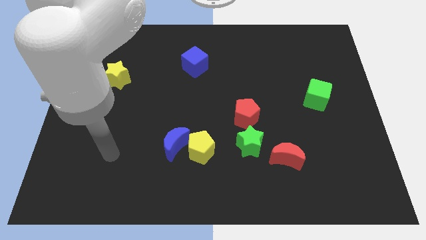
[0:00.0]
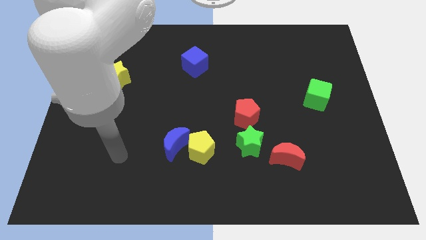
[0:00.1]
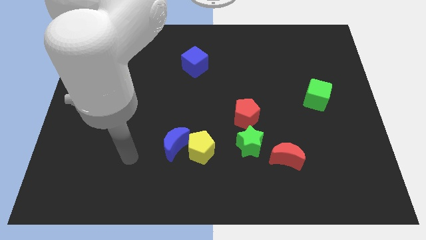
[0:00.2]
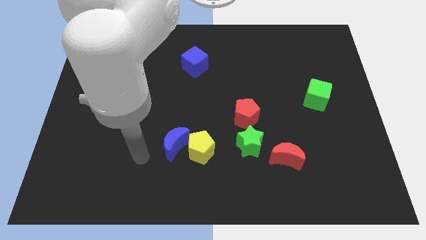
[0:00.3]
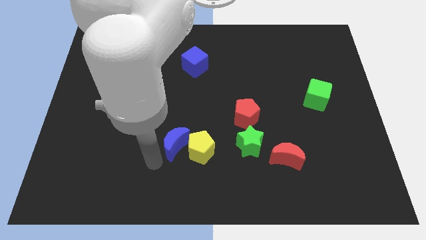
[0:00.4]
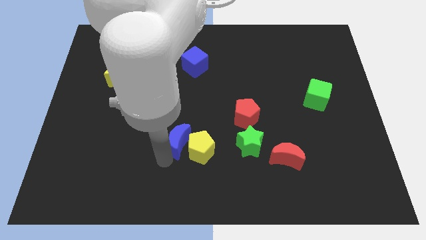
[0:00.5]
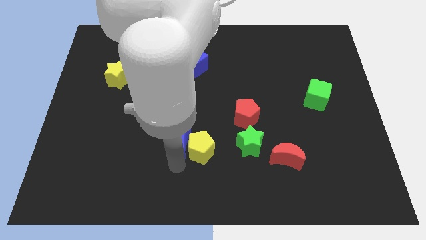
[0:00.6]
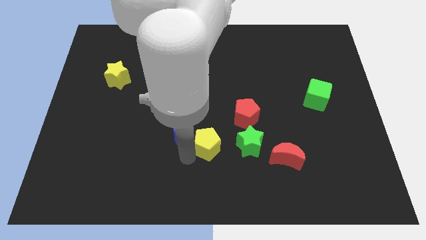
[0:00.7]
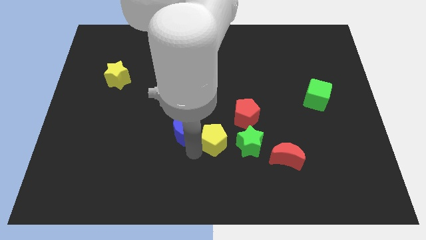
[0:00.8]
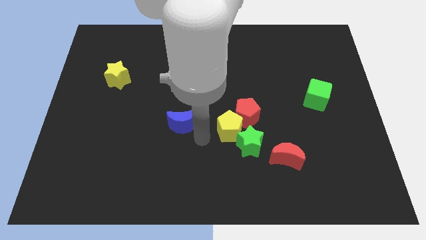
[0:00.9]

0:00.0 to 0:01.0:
separate the blue moon from the yellow pentagon

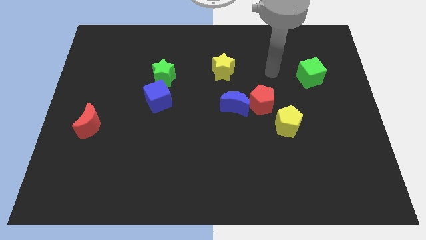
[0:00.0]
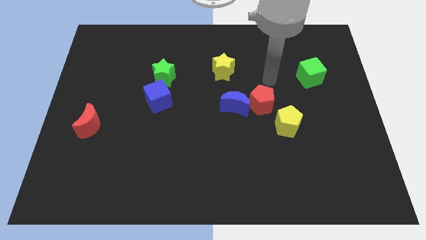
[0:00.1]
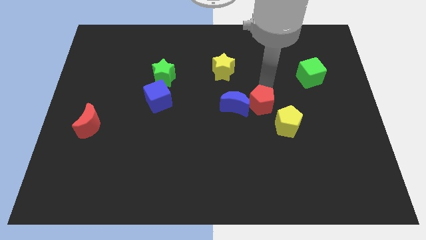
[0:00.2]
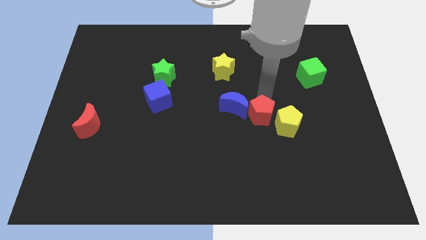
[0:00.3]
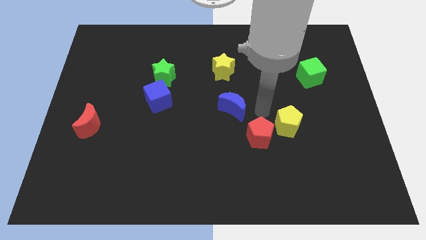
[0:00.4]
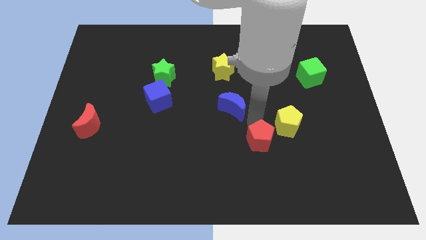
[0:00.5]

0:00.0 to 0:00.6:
separate the blue moon from the red pentagon

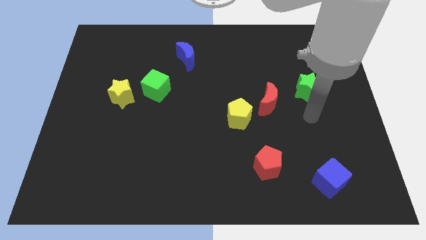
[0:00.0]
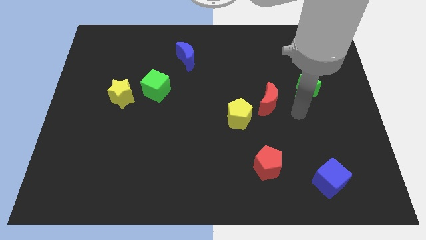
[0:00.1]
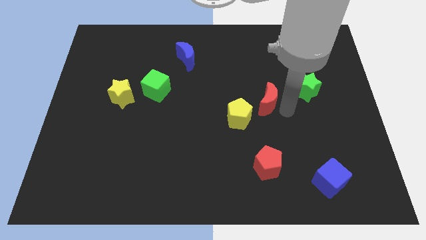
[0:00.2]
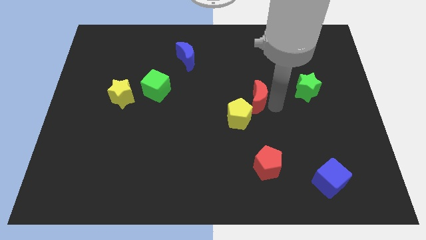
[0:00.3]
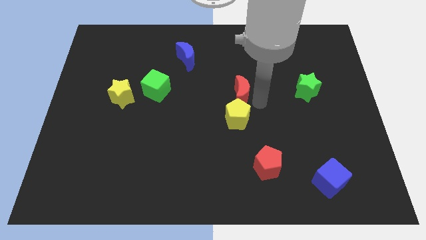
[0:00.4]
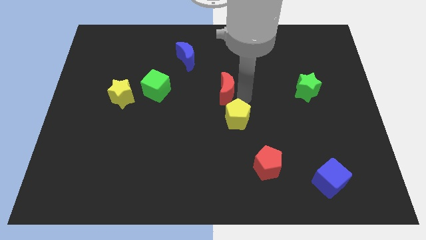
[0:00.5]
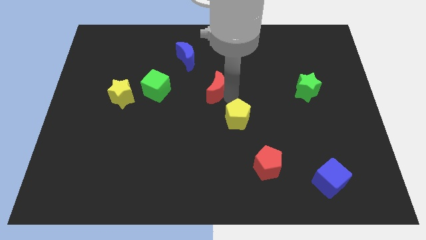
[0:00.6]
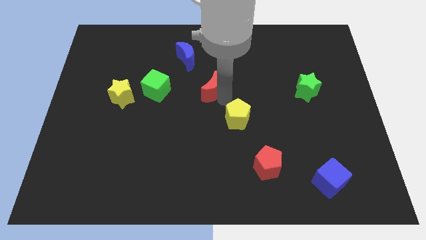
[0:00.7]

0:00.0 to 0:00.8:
separate the yellow pentagon from the red moon

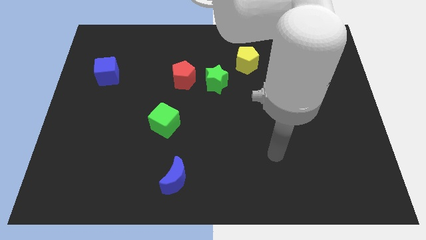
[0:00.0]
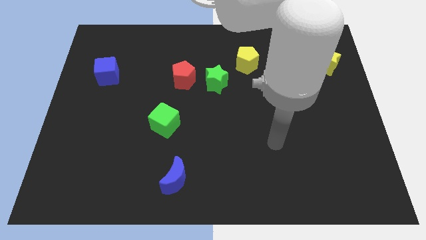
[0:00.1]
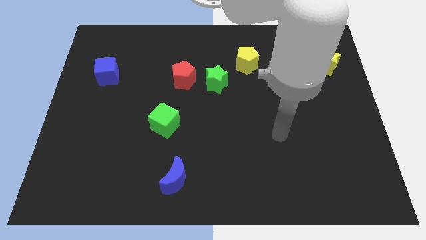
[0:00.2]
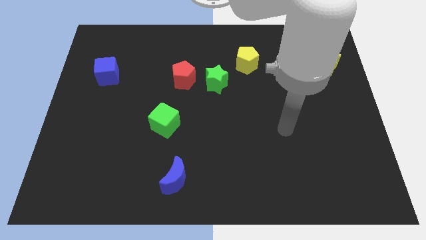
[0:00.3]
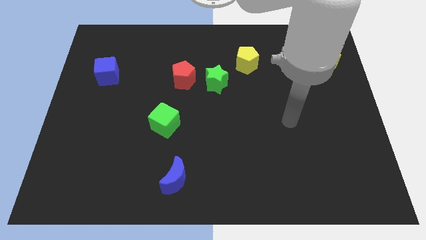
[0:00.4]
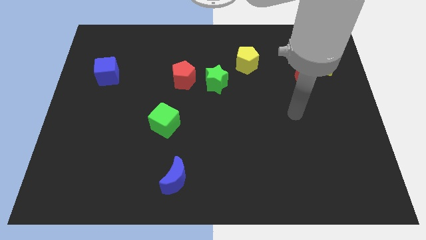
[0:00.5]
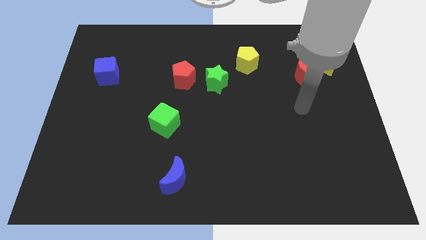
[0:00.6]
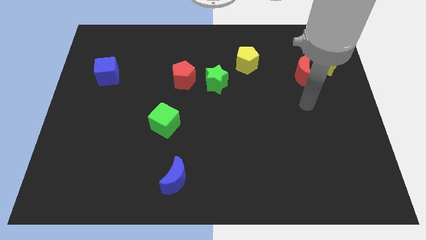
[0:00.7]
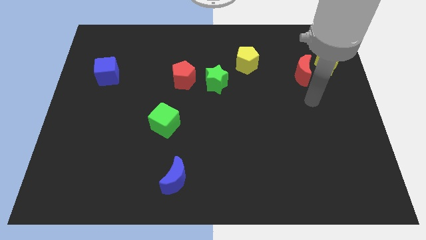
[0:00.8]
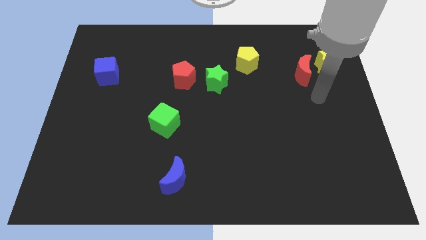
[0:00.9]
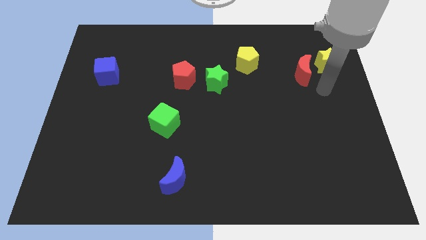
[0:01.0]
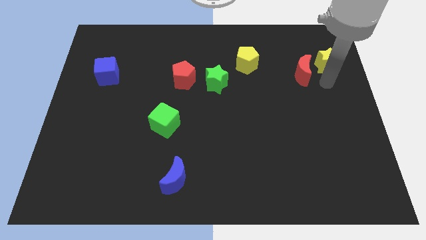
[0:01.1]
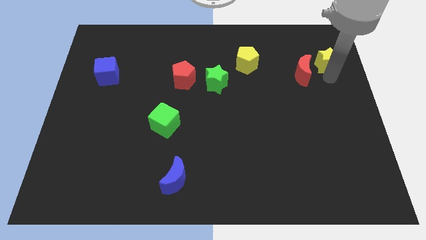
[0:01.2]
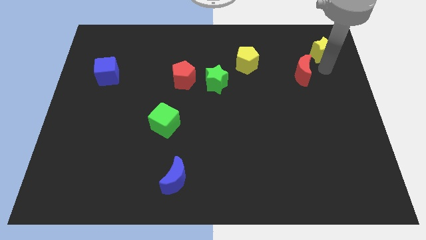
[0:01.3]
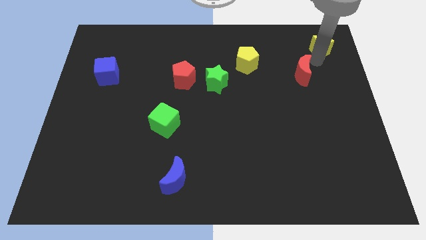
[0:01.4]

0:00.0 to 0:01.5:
pull the red moon apart from the yellow star

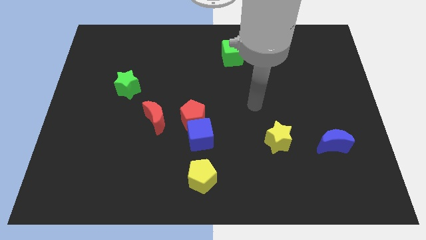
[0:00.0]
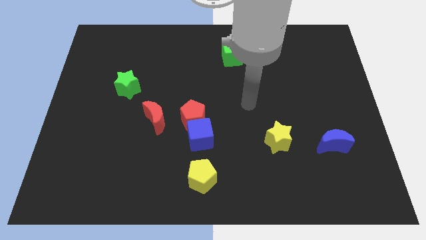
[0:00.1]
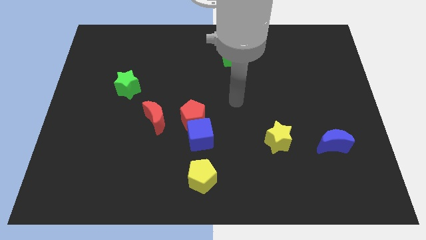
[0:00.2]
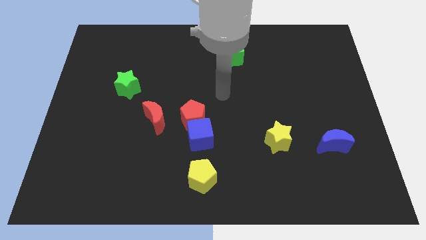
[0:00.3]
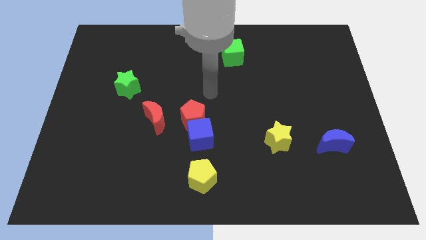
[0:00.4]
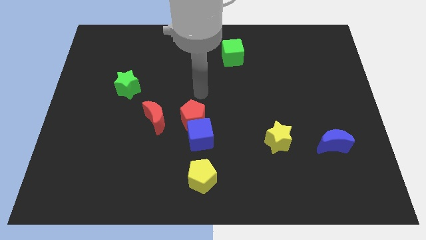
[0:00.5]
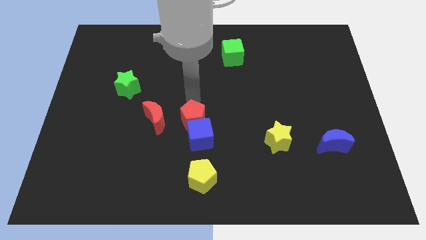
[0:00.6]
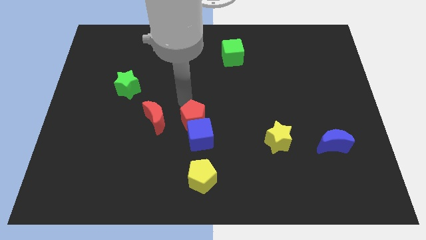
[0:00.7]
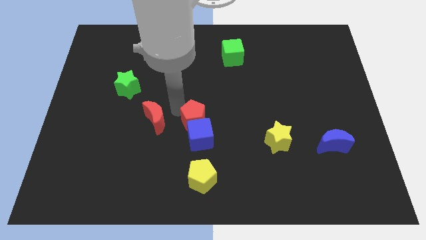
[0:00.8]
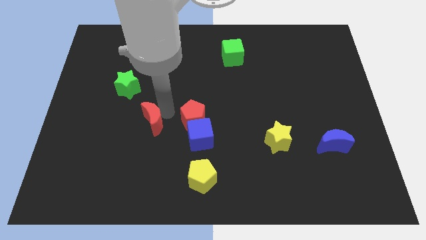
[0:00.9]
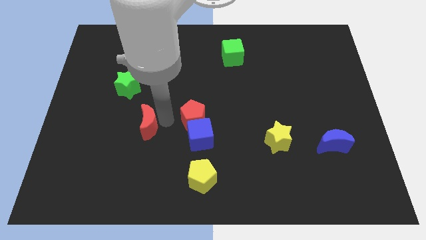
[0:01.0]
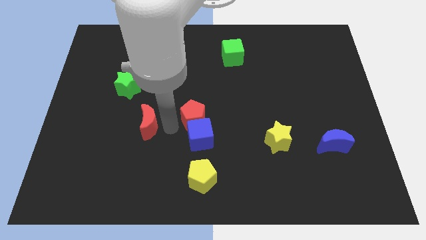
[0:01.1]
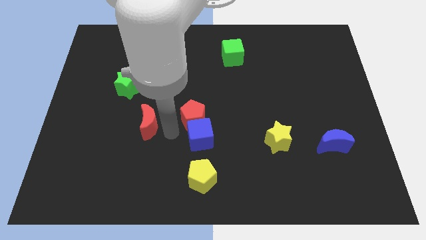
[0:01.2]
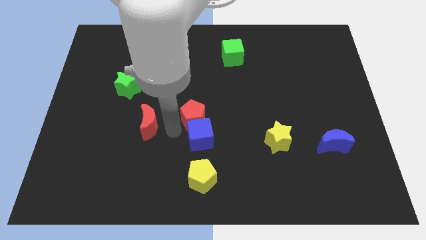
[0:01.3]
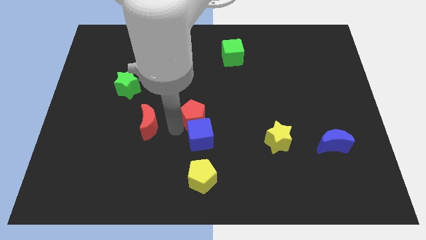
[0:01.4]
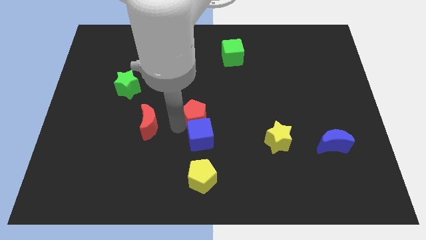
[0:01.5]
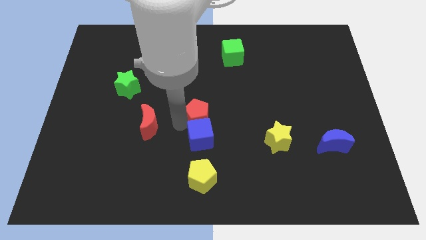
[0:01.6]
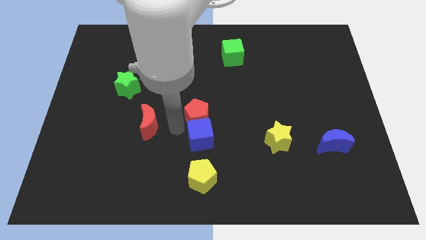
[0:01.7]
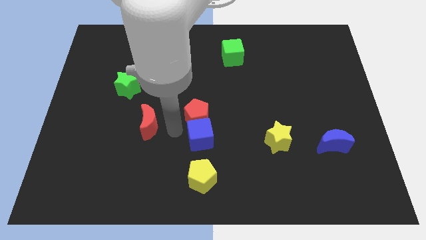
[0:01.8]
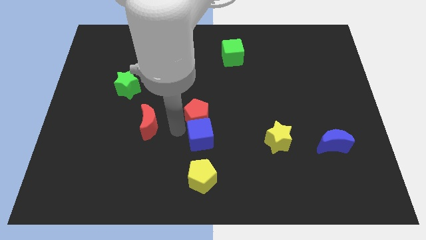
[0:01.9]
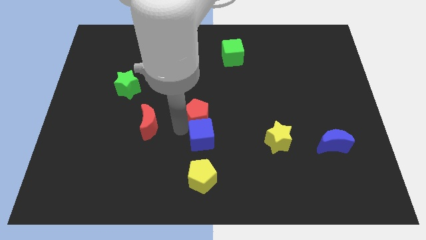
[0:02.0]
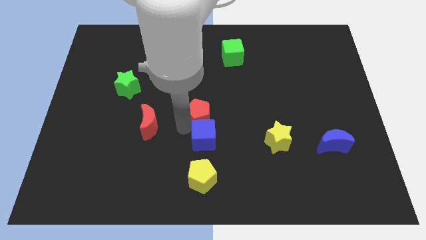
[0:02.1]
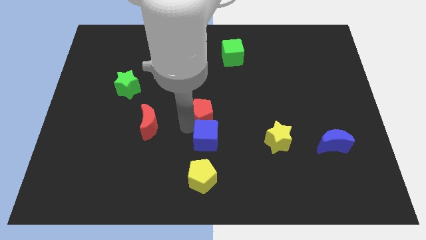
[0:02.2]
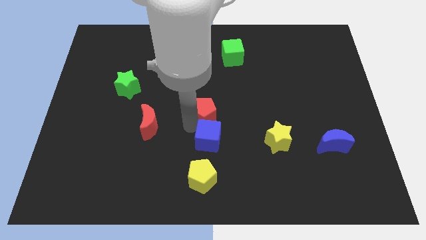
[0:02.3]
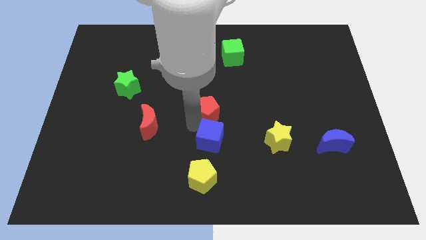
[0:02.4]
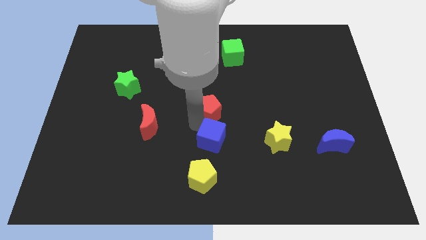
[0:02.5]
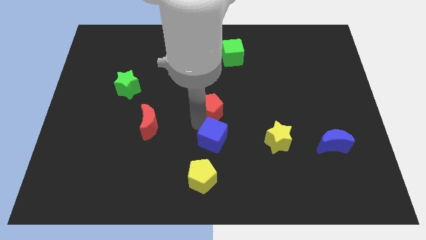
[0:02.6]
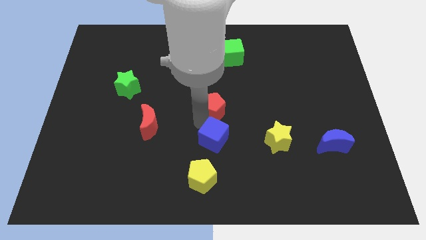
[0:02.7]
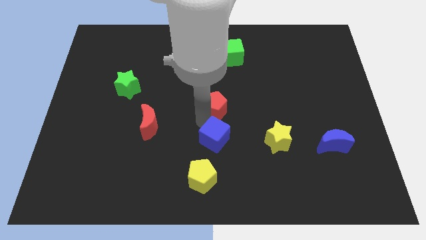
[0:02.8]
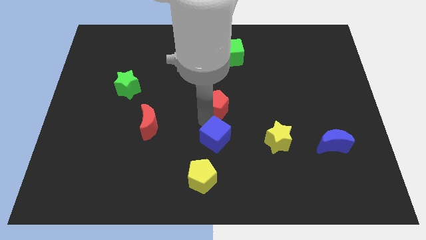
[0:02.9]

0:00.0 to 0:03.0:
move the red pentagon away from the blue cube and red moon

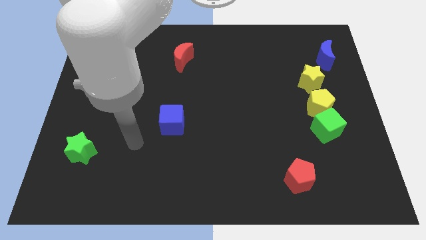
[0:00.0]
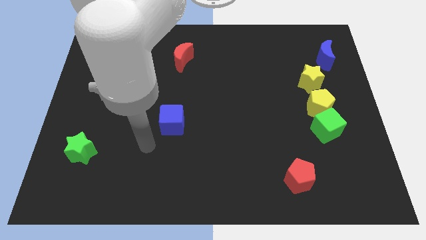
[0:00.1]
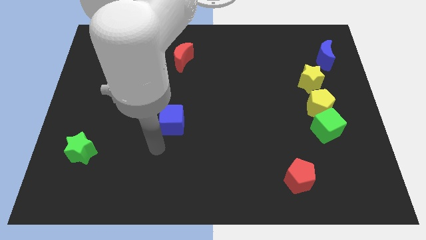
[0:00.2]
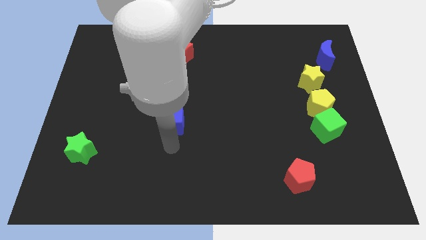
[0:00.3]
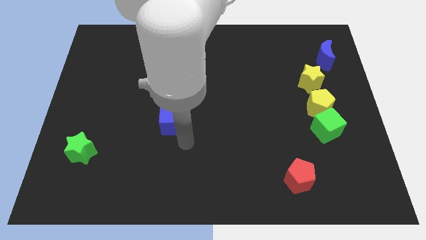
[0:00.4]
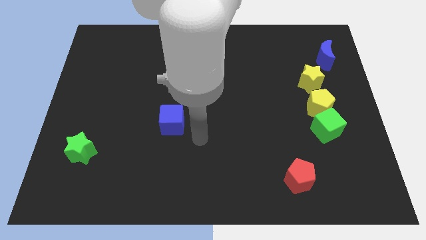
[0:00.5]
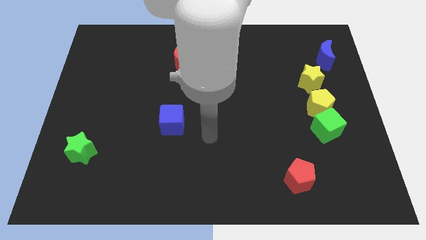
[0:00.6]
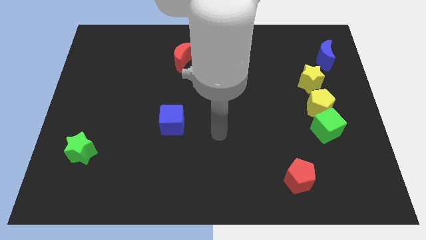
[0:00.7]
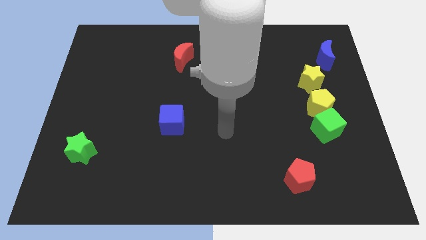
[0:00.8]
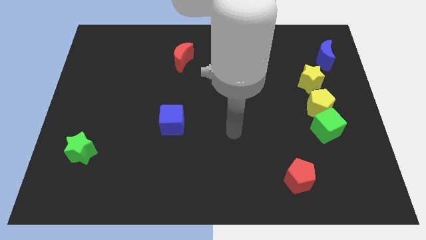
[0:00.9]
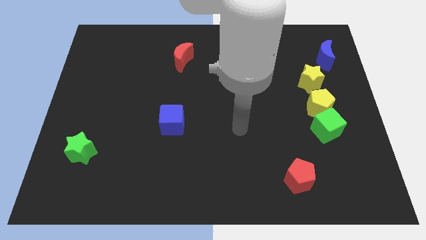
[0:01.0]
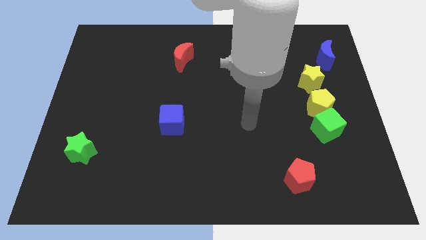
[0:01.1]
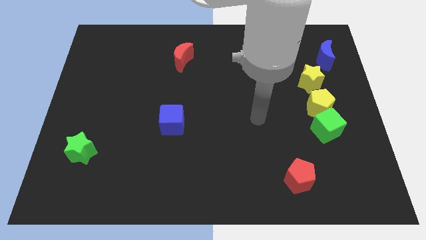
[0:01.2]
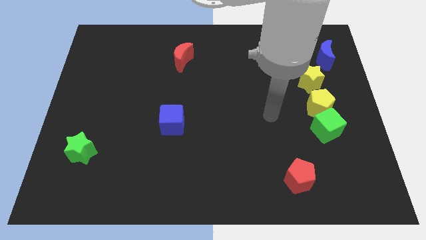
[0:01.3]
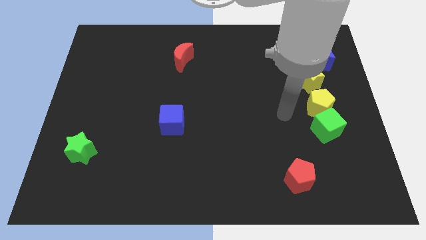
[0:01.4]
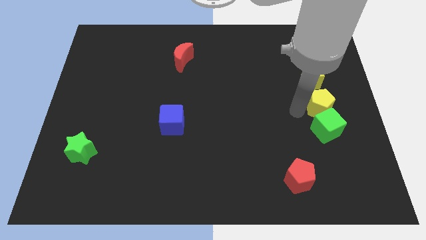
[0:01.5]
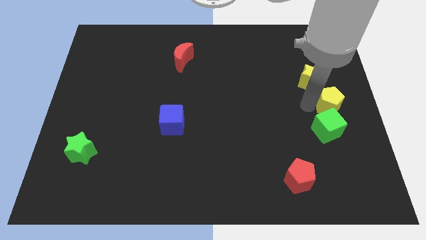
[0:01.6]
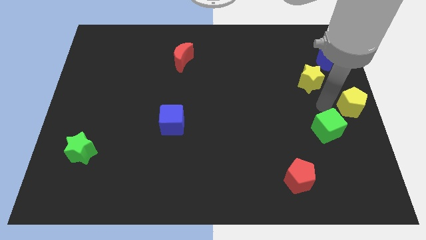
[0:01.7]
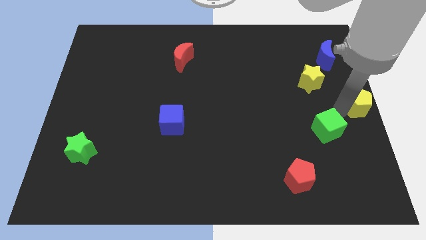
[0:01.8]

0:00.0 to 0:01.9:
separate the green cube from the yellow pentagon

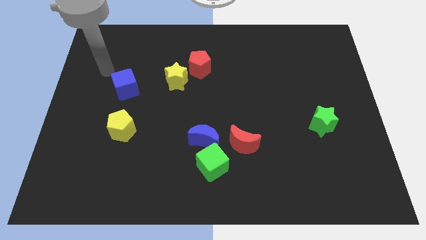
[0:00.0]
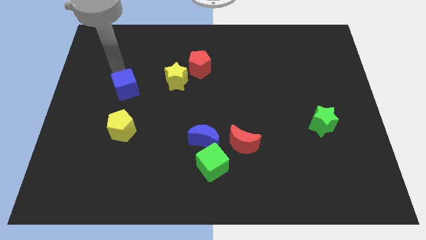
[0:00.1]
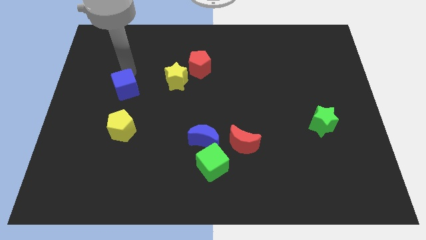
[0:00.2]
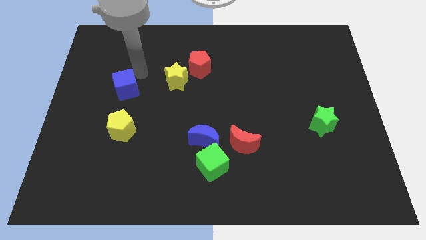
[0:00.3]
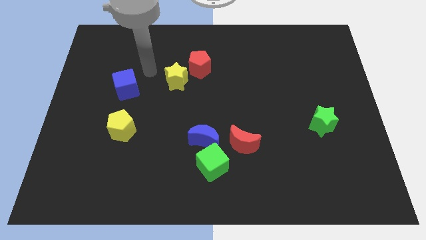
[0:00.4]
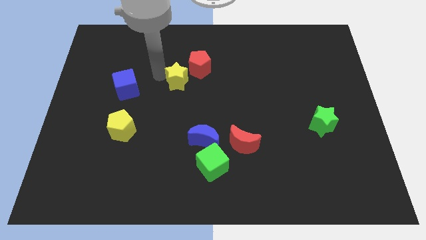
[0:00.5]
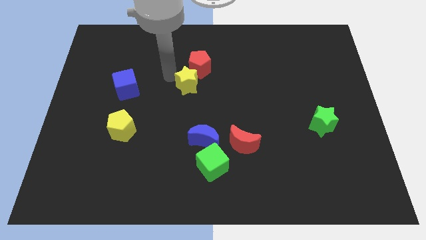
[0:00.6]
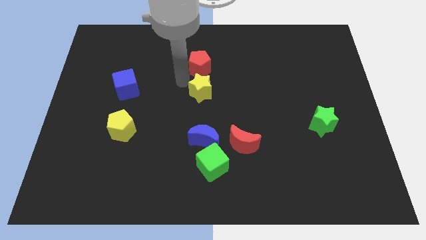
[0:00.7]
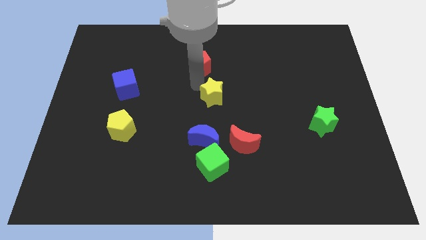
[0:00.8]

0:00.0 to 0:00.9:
separate the red pentagon from the yellow star
